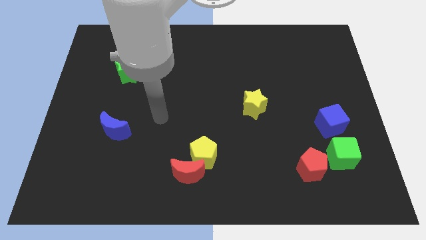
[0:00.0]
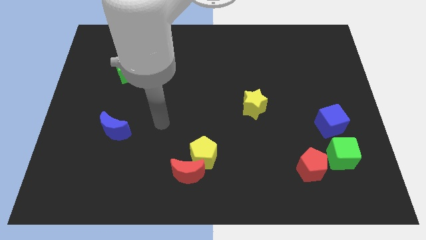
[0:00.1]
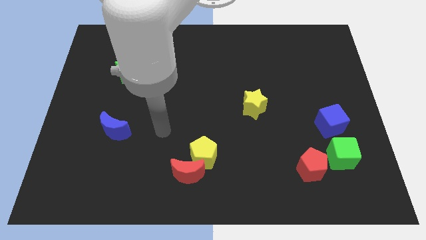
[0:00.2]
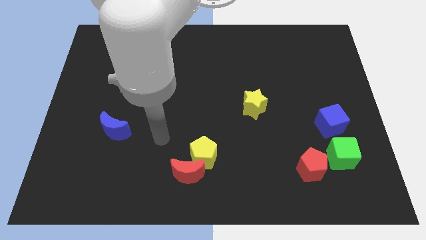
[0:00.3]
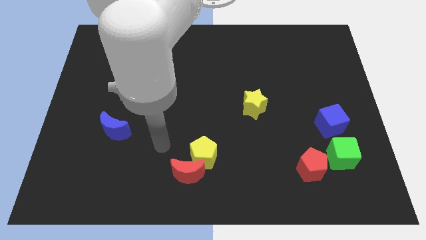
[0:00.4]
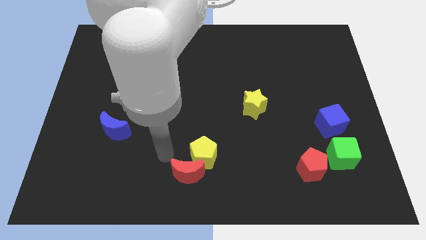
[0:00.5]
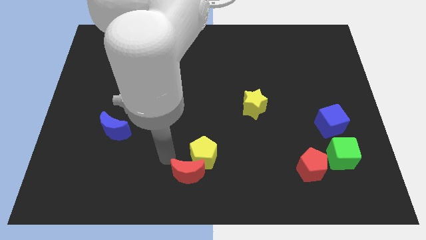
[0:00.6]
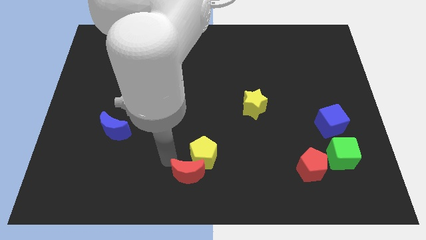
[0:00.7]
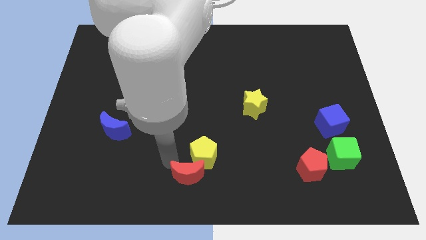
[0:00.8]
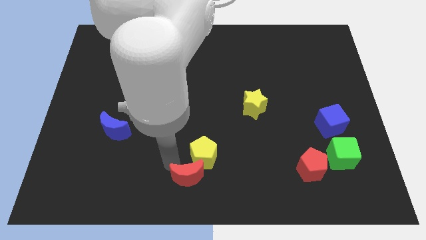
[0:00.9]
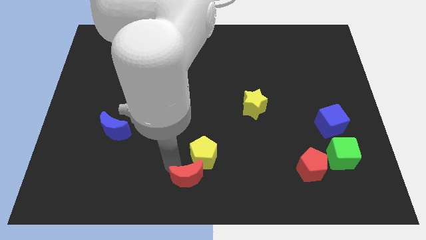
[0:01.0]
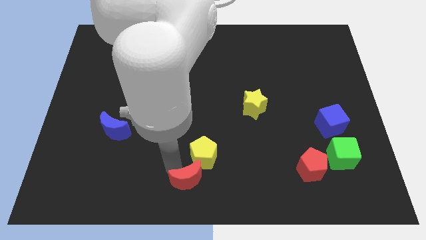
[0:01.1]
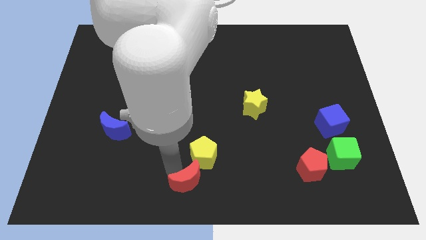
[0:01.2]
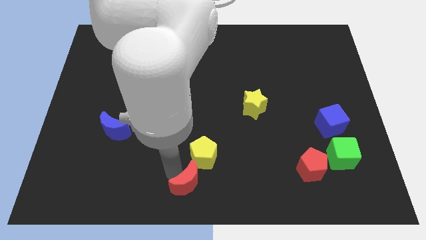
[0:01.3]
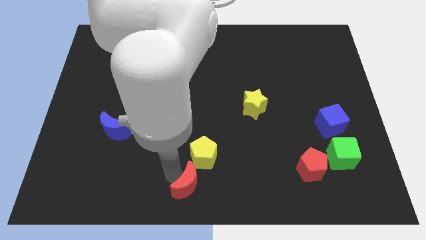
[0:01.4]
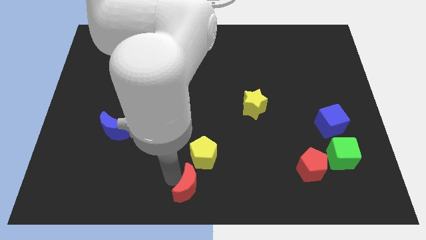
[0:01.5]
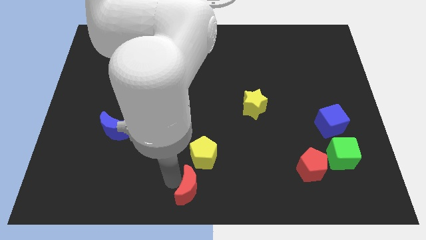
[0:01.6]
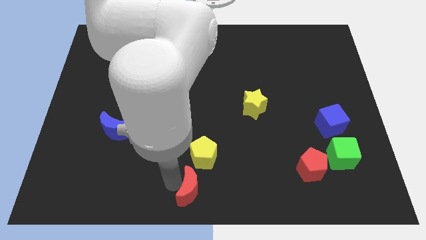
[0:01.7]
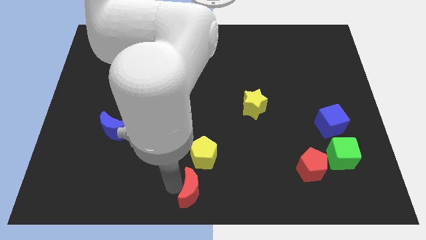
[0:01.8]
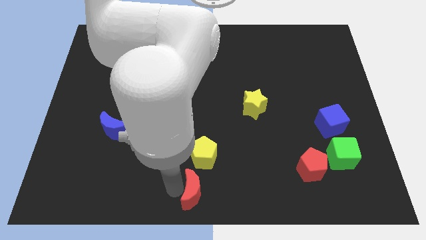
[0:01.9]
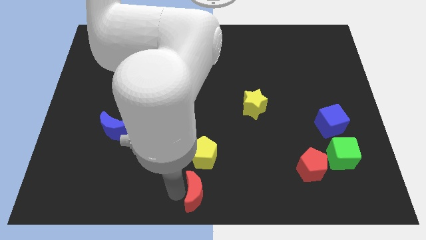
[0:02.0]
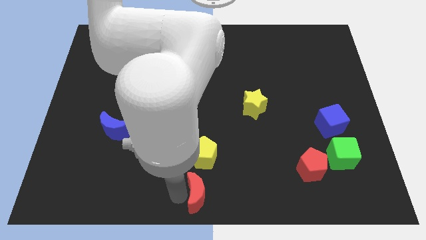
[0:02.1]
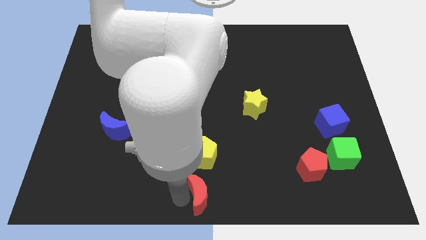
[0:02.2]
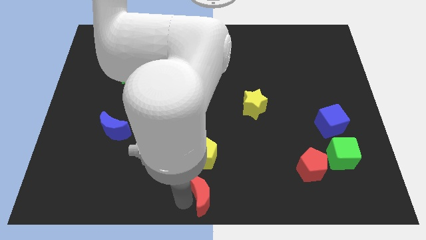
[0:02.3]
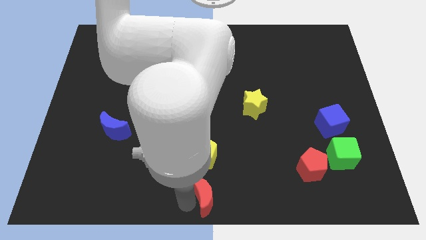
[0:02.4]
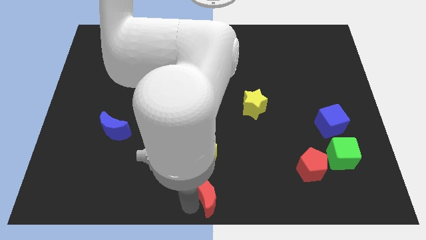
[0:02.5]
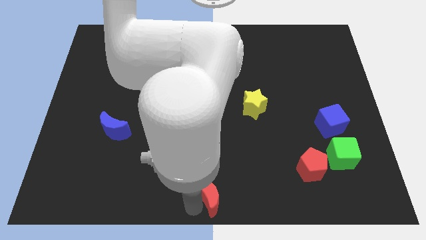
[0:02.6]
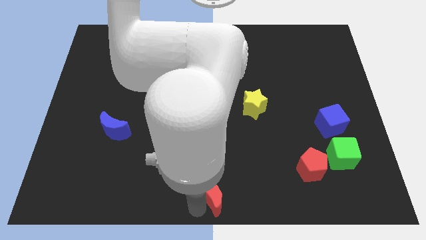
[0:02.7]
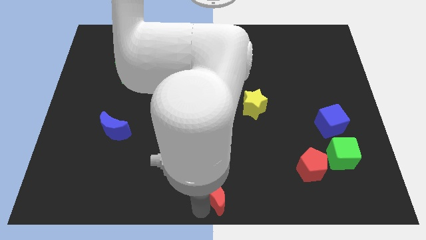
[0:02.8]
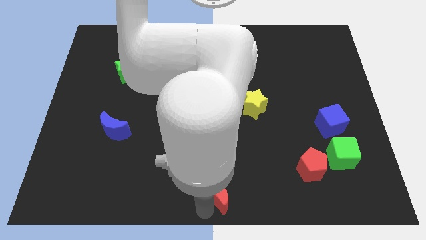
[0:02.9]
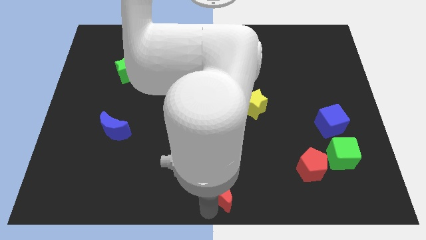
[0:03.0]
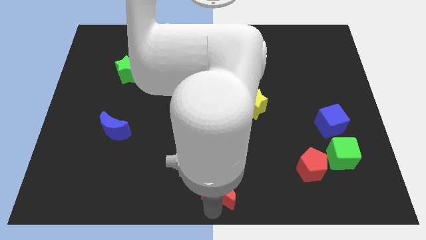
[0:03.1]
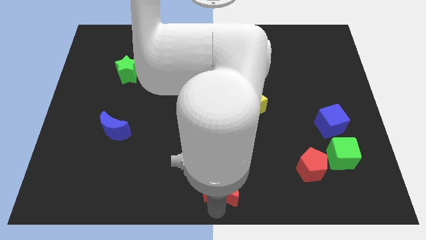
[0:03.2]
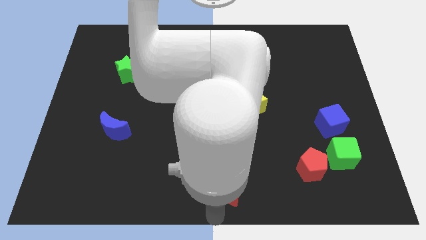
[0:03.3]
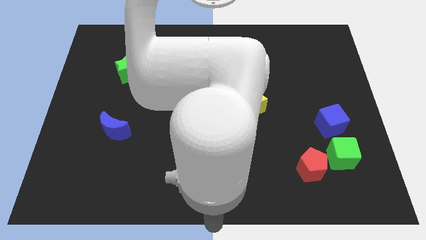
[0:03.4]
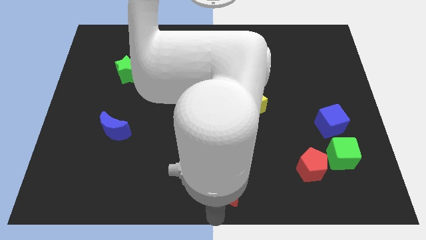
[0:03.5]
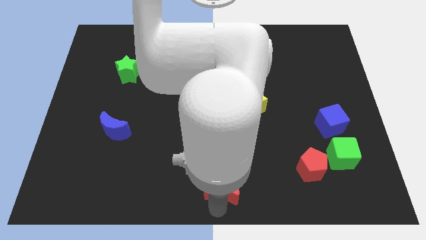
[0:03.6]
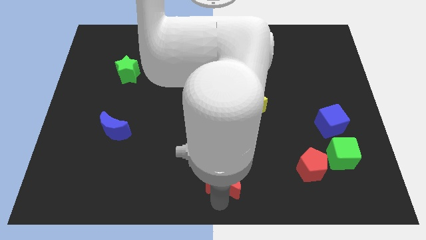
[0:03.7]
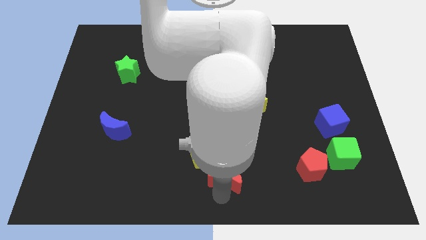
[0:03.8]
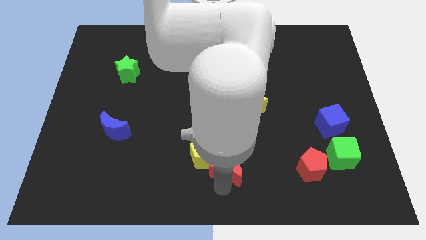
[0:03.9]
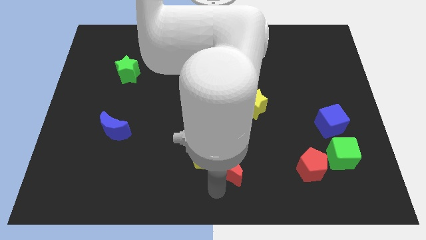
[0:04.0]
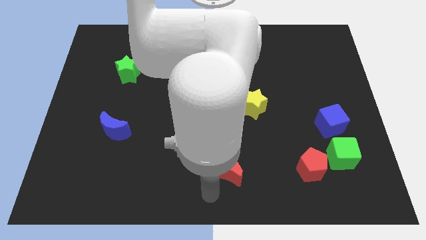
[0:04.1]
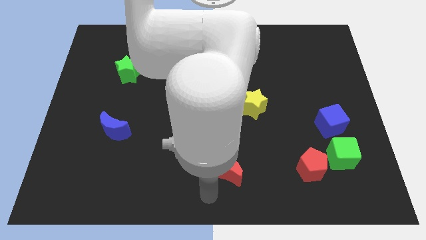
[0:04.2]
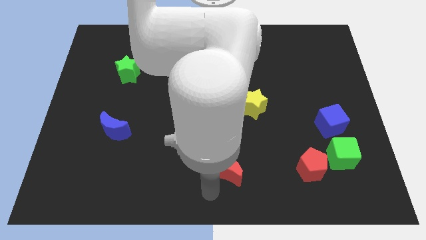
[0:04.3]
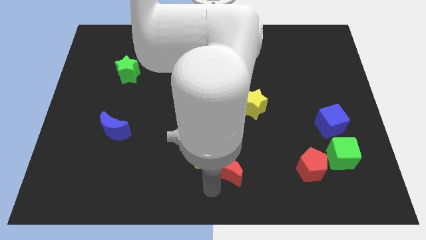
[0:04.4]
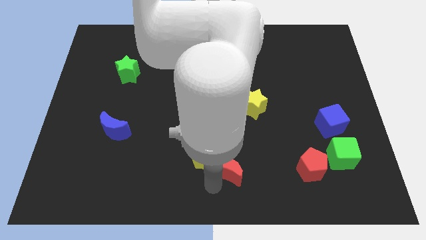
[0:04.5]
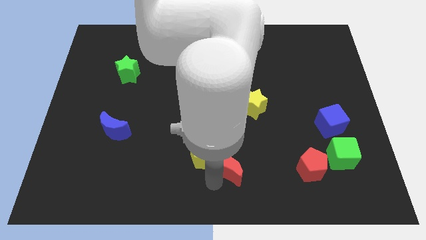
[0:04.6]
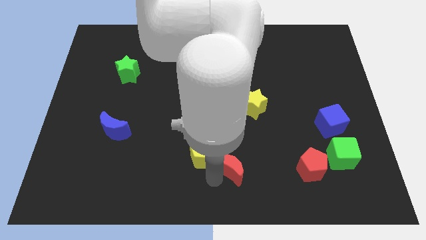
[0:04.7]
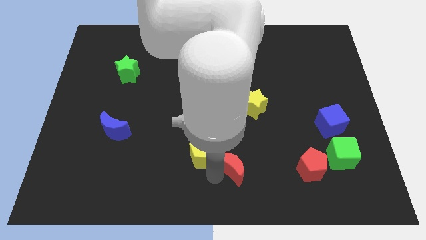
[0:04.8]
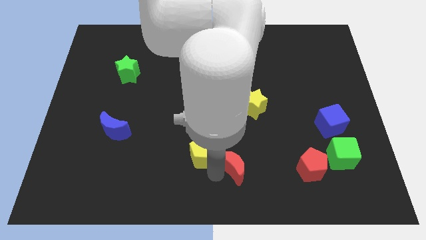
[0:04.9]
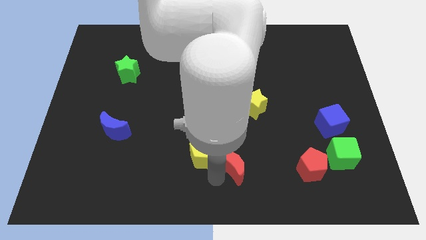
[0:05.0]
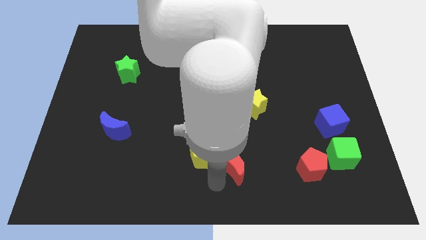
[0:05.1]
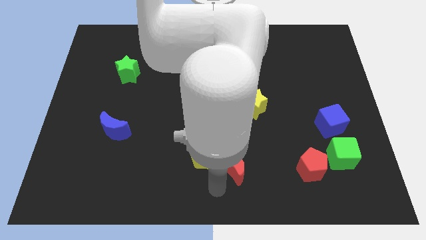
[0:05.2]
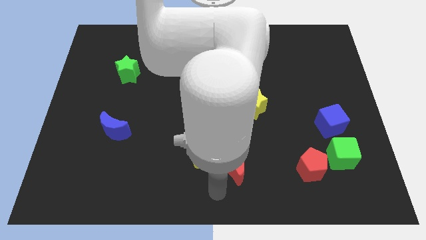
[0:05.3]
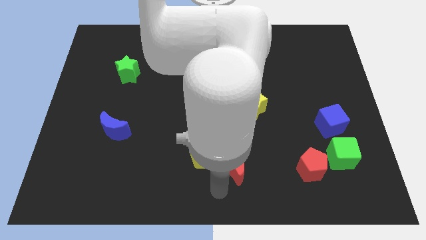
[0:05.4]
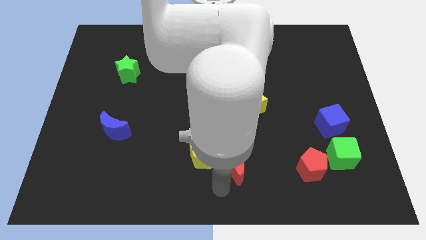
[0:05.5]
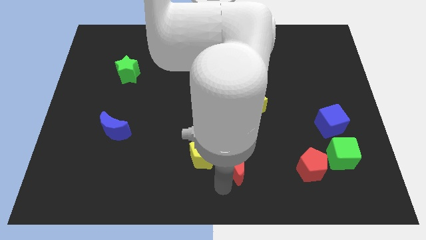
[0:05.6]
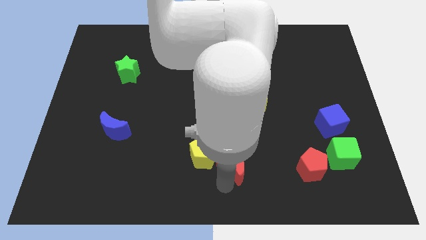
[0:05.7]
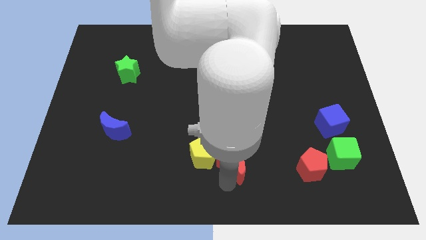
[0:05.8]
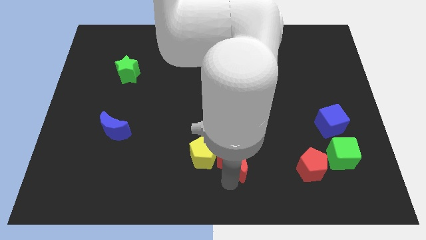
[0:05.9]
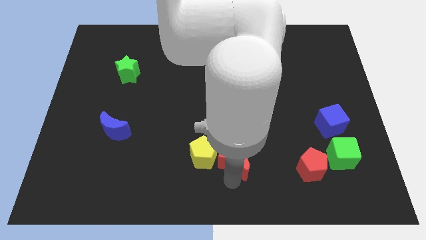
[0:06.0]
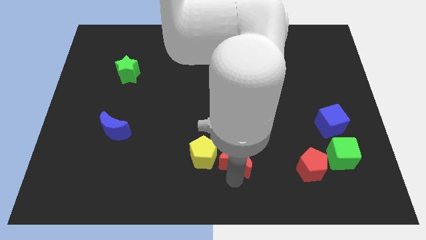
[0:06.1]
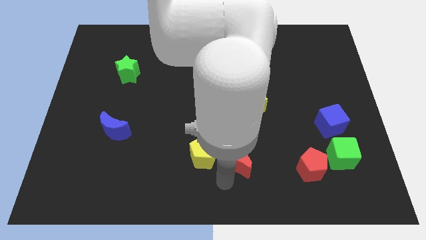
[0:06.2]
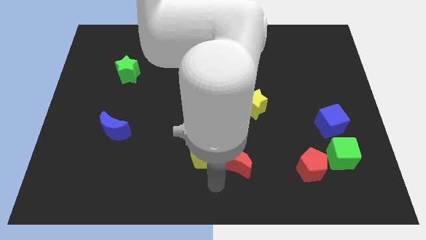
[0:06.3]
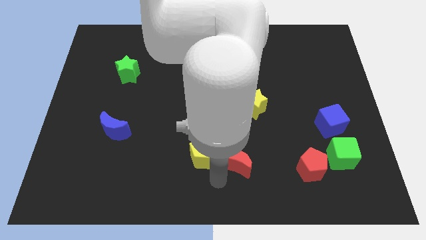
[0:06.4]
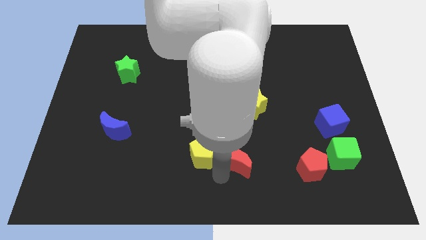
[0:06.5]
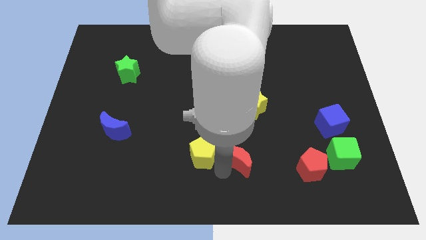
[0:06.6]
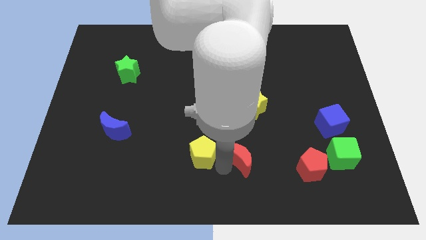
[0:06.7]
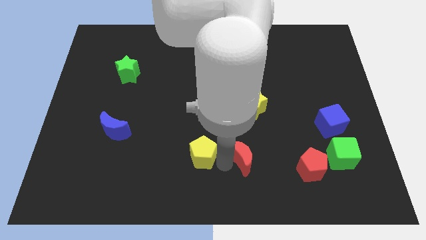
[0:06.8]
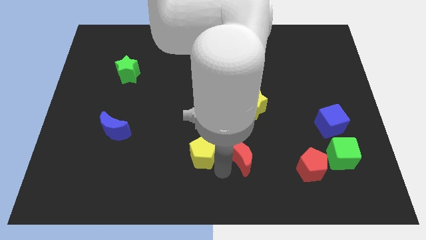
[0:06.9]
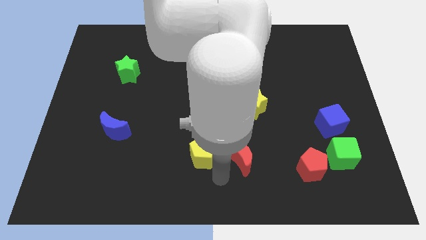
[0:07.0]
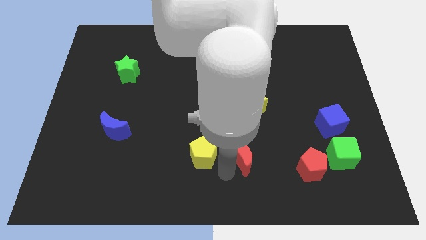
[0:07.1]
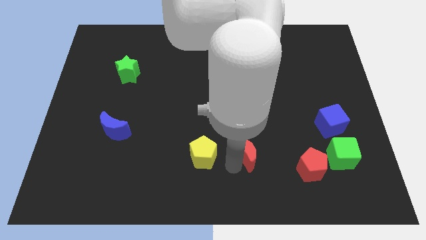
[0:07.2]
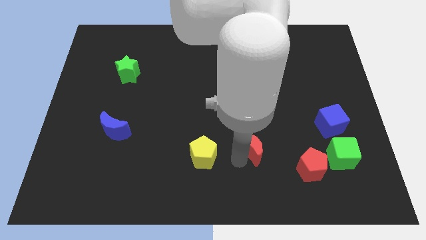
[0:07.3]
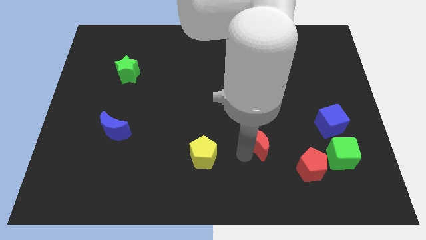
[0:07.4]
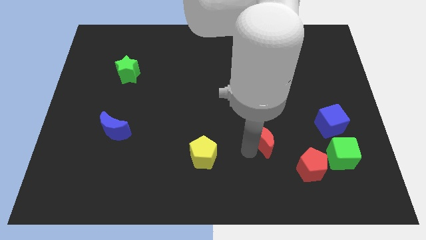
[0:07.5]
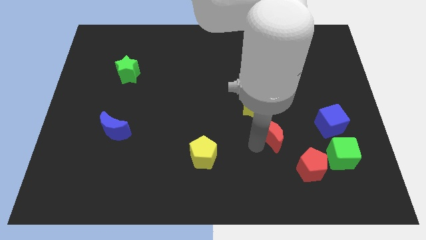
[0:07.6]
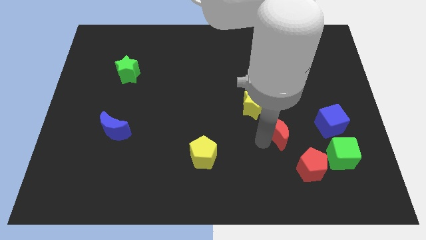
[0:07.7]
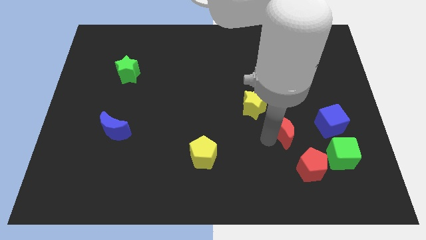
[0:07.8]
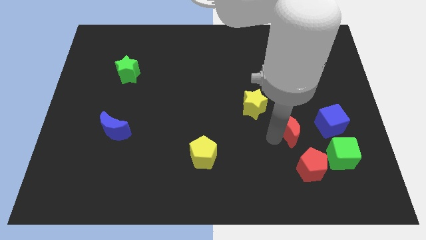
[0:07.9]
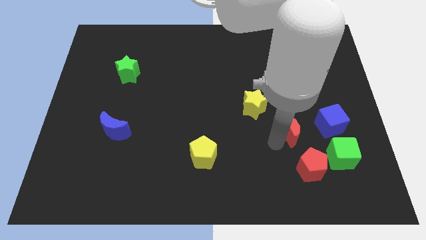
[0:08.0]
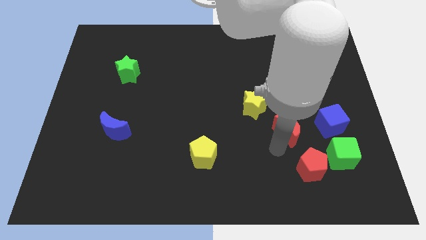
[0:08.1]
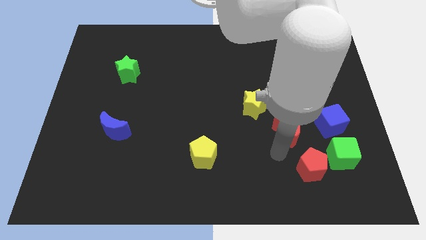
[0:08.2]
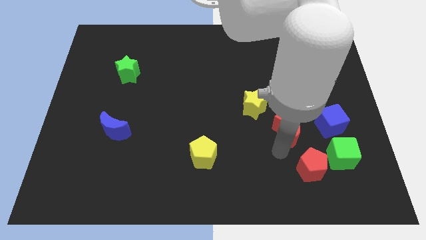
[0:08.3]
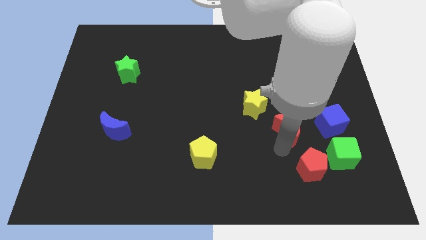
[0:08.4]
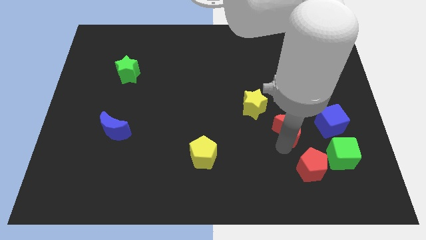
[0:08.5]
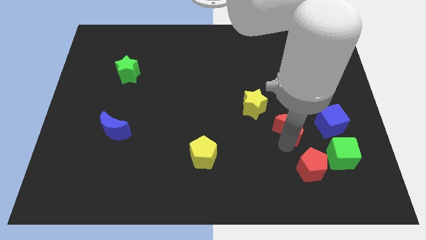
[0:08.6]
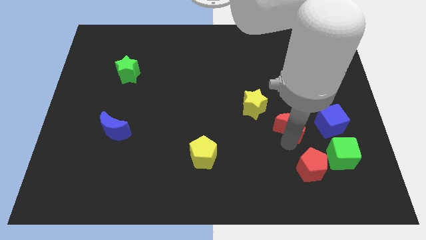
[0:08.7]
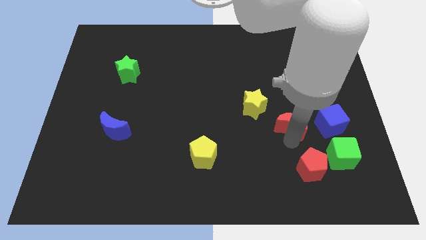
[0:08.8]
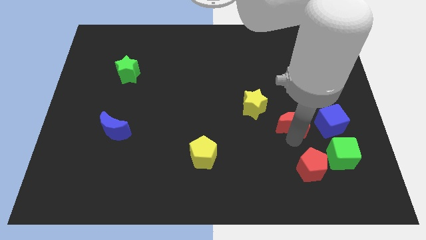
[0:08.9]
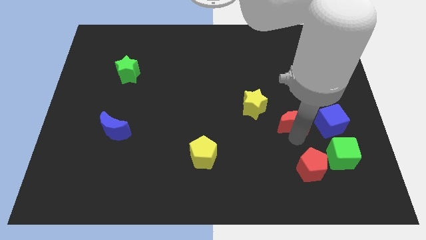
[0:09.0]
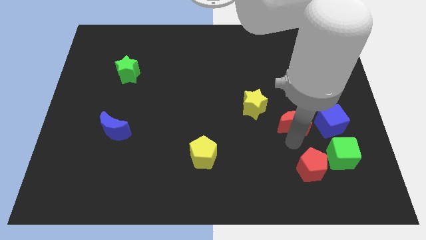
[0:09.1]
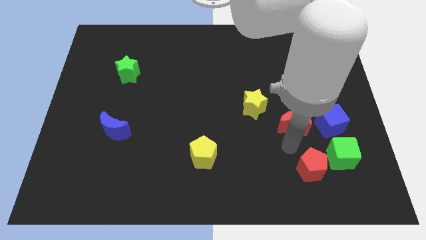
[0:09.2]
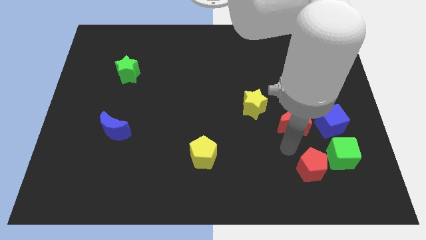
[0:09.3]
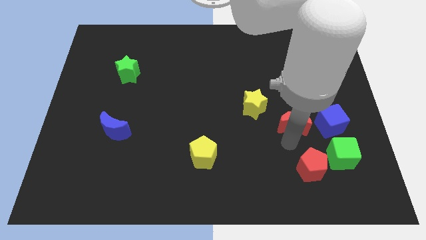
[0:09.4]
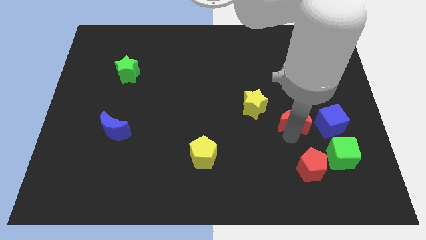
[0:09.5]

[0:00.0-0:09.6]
move the red moon just right of the yellow star
